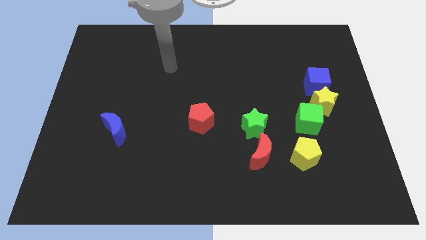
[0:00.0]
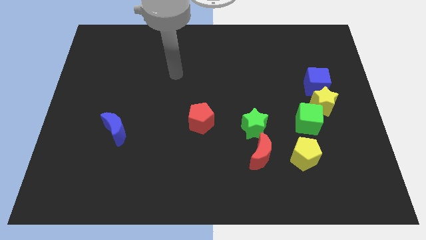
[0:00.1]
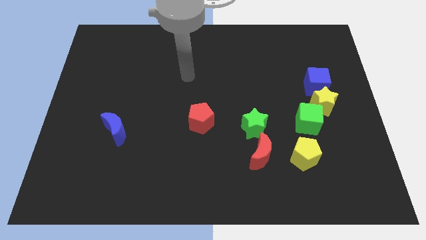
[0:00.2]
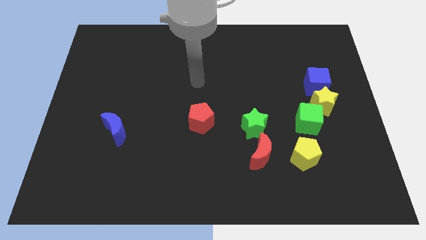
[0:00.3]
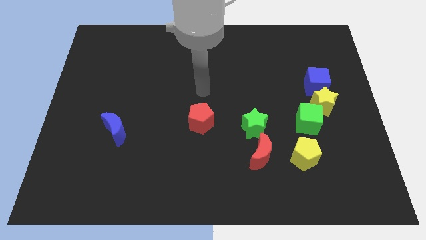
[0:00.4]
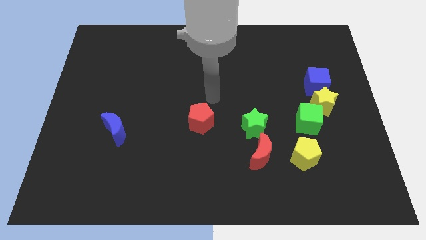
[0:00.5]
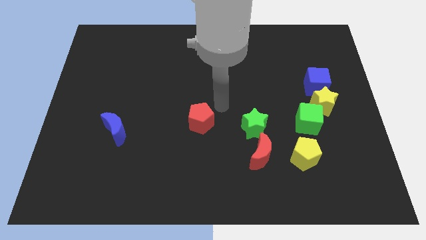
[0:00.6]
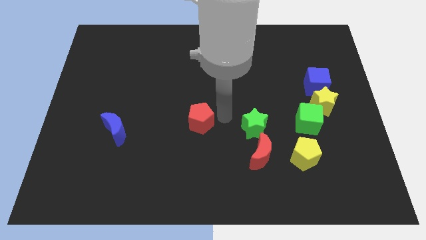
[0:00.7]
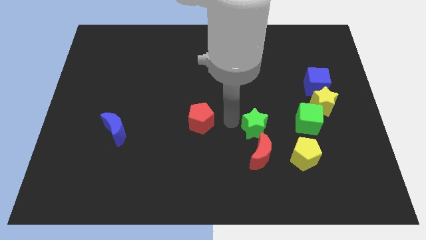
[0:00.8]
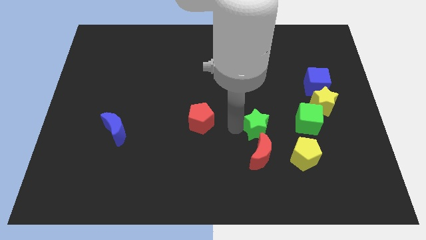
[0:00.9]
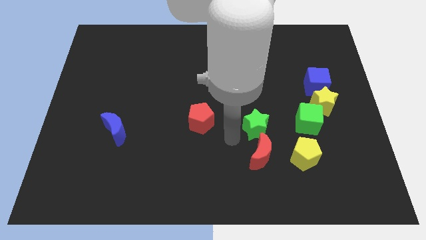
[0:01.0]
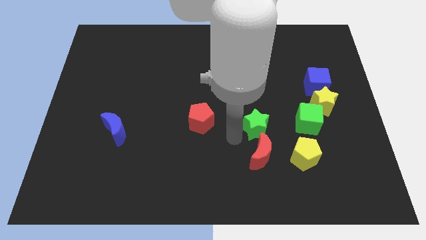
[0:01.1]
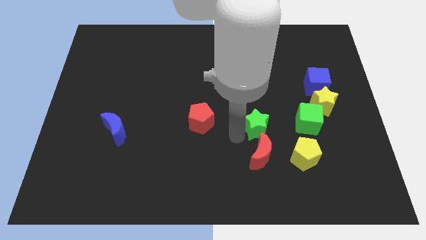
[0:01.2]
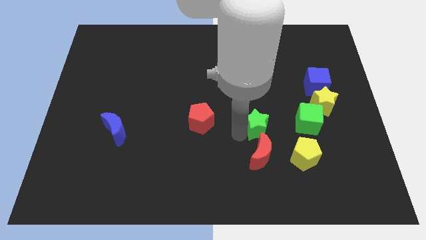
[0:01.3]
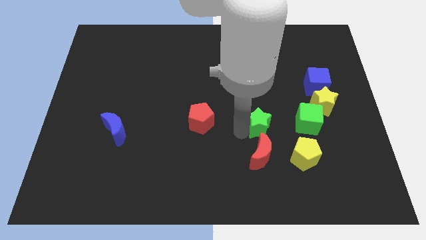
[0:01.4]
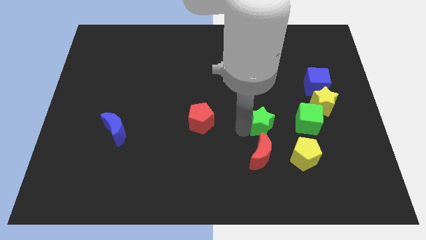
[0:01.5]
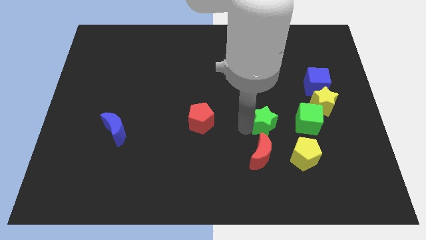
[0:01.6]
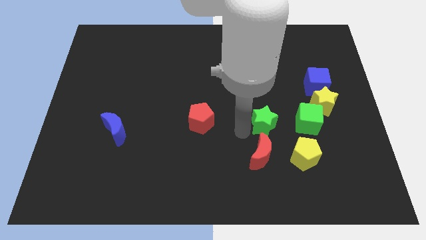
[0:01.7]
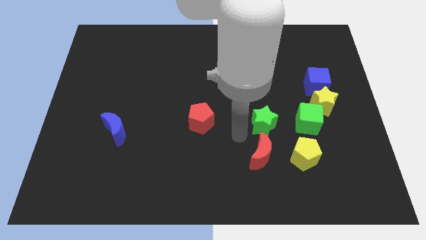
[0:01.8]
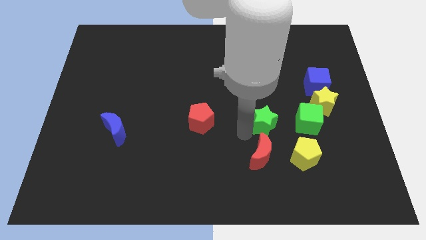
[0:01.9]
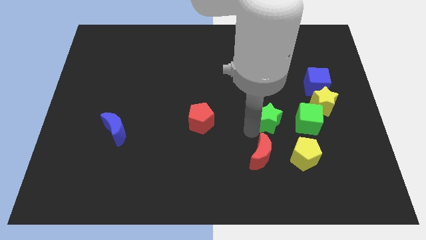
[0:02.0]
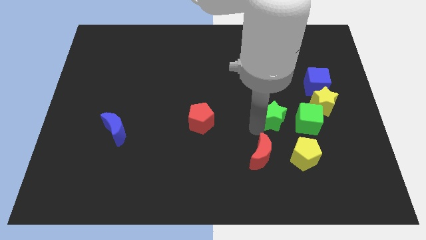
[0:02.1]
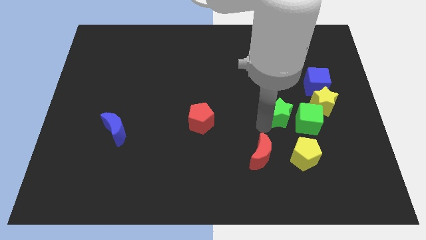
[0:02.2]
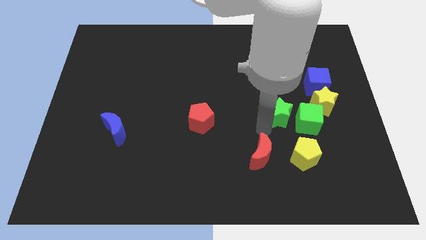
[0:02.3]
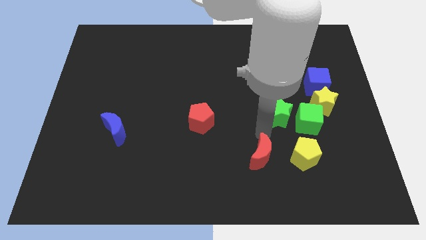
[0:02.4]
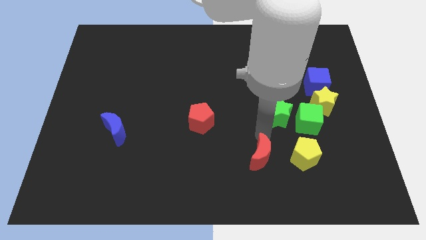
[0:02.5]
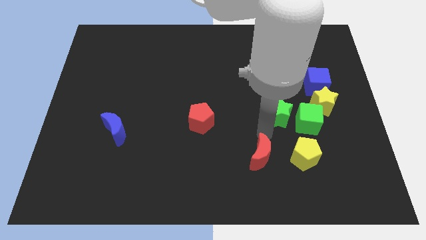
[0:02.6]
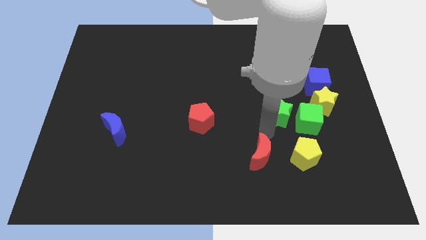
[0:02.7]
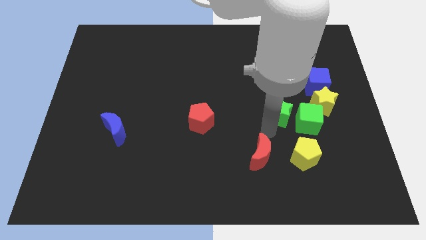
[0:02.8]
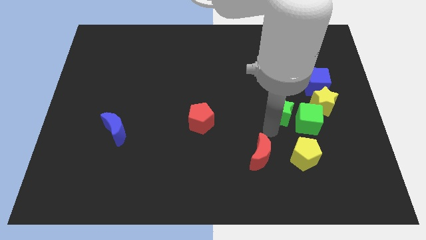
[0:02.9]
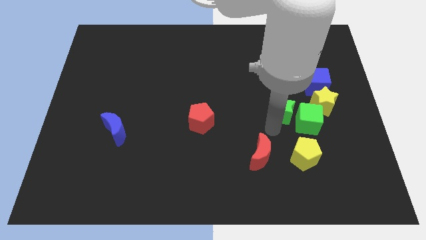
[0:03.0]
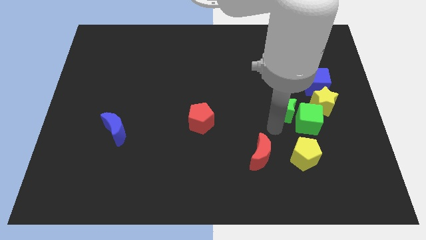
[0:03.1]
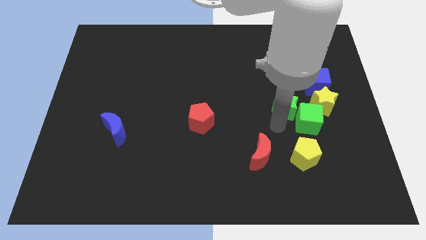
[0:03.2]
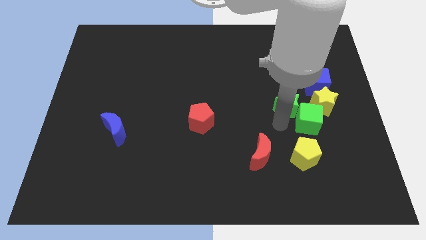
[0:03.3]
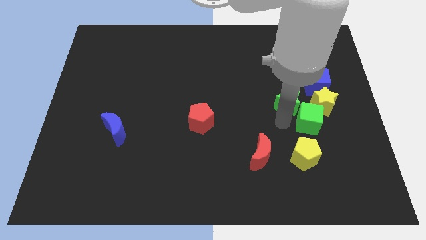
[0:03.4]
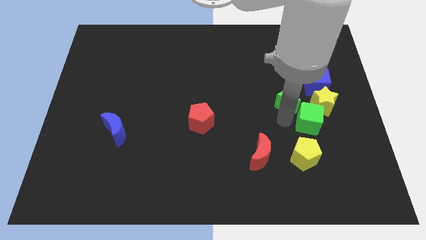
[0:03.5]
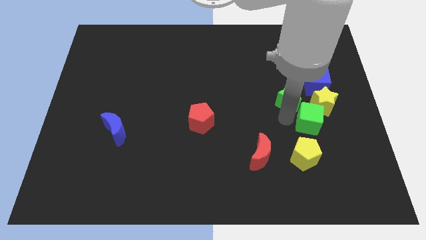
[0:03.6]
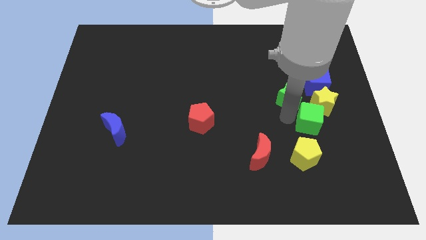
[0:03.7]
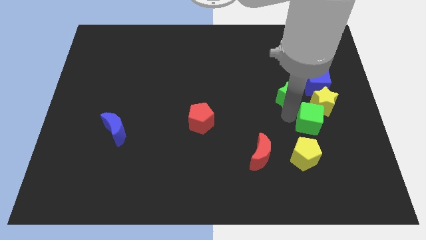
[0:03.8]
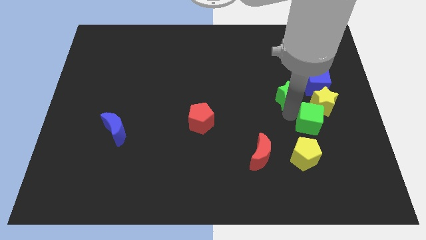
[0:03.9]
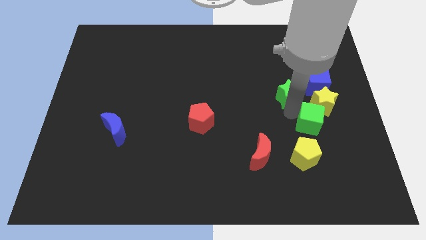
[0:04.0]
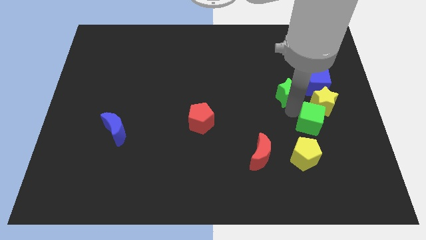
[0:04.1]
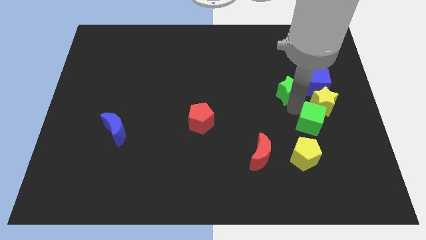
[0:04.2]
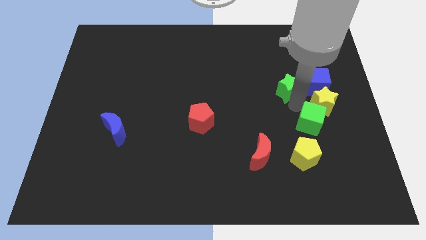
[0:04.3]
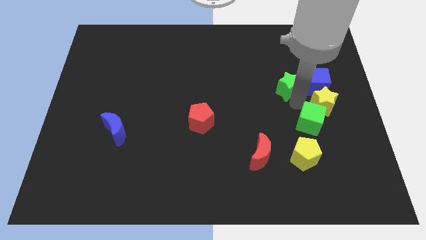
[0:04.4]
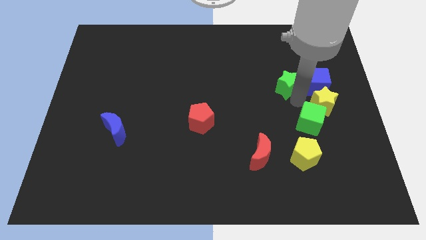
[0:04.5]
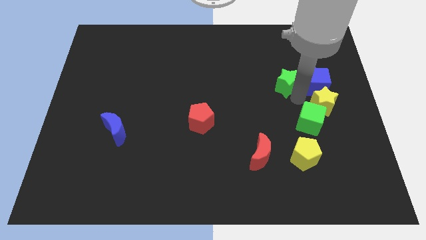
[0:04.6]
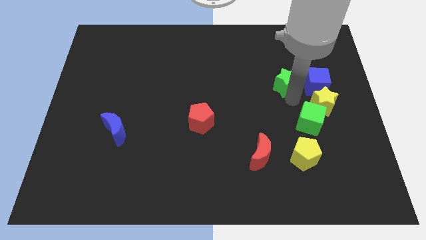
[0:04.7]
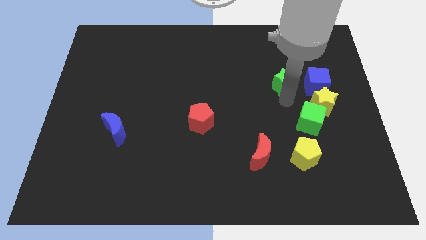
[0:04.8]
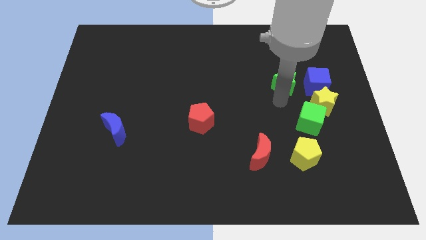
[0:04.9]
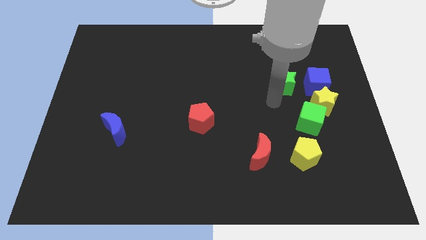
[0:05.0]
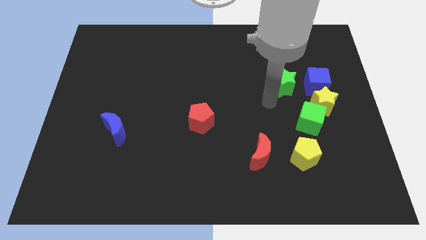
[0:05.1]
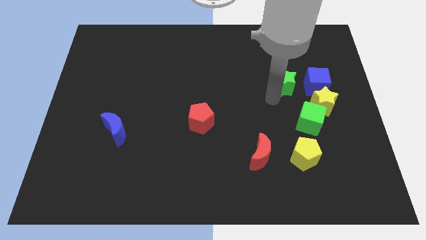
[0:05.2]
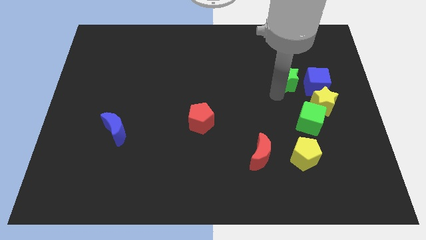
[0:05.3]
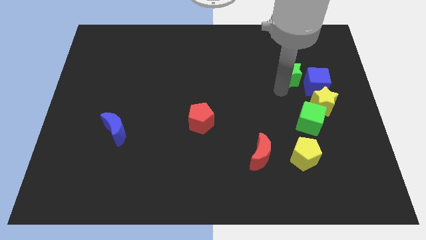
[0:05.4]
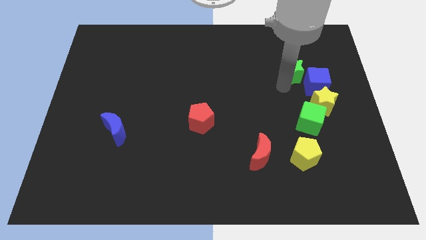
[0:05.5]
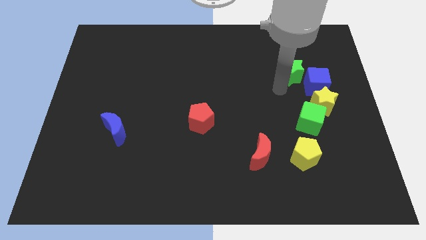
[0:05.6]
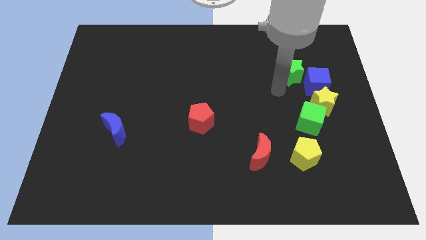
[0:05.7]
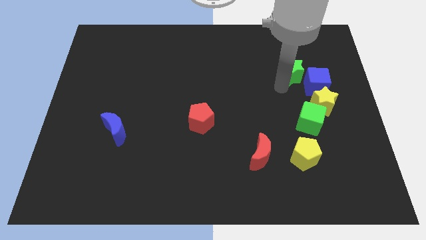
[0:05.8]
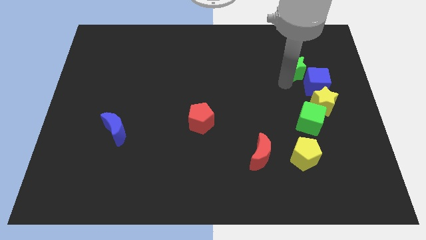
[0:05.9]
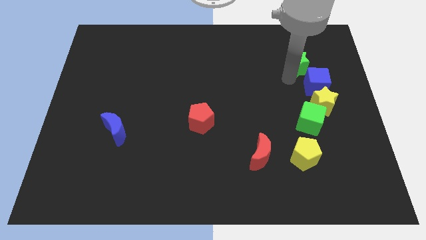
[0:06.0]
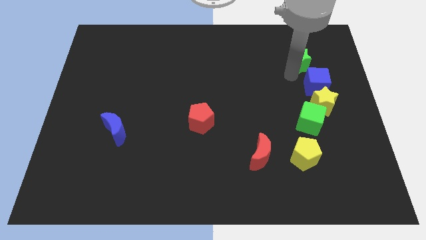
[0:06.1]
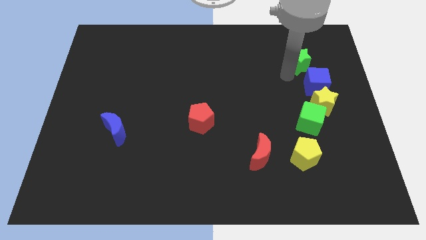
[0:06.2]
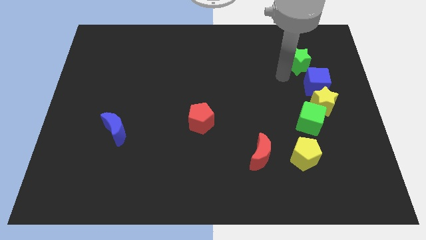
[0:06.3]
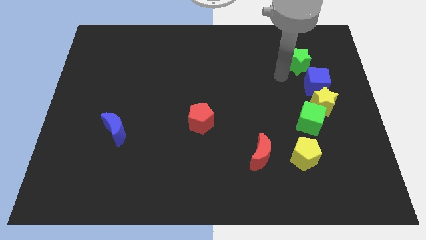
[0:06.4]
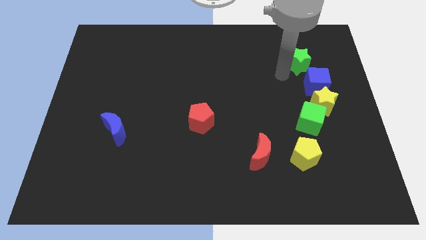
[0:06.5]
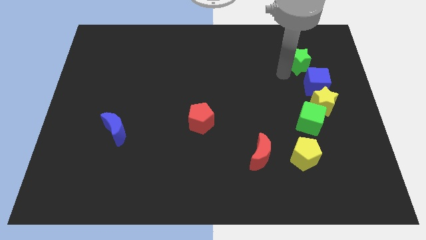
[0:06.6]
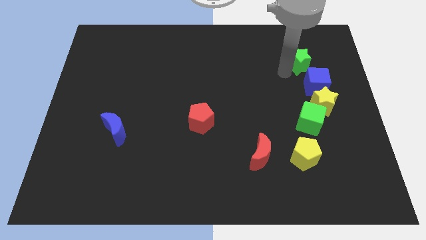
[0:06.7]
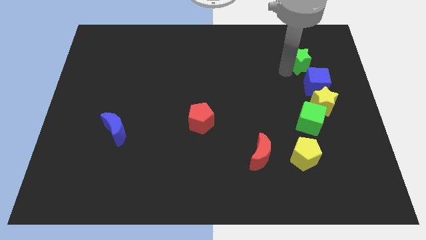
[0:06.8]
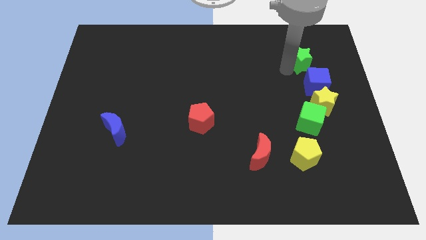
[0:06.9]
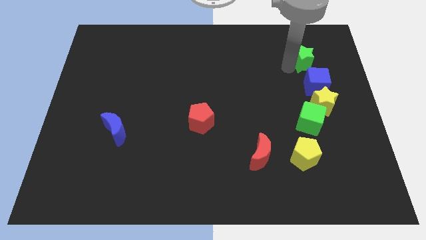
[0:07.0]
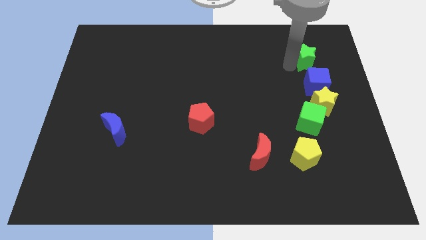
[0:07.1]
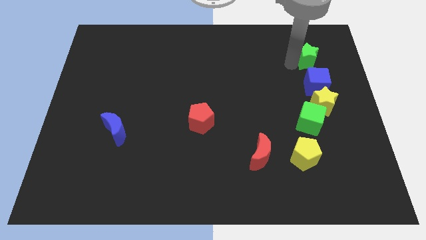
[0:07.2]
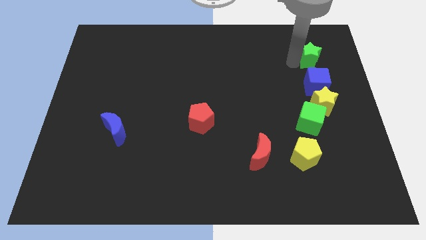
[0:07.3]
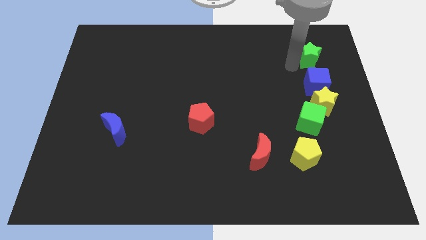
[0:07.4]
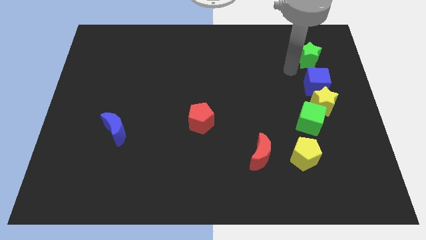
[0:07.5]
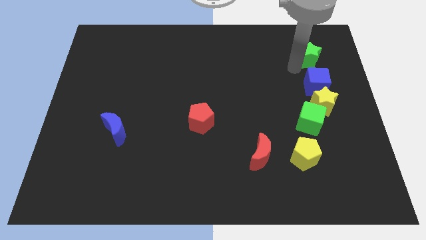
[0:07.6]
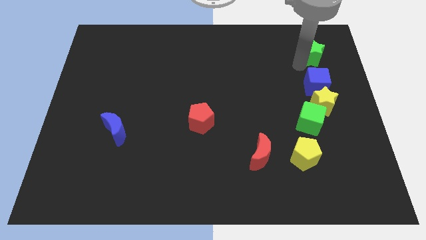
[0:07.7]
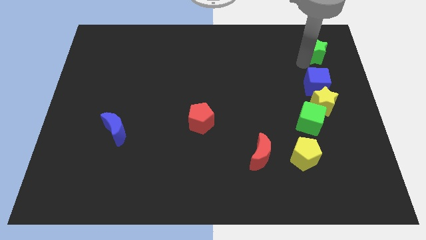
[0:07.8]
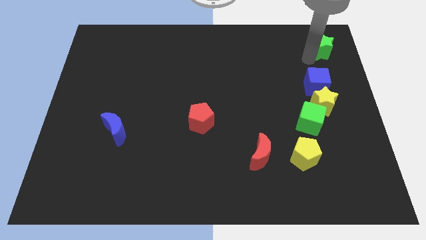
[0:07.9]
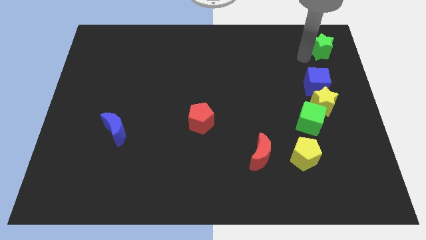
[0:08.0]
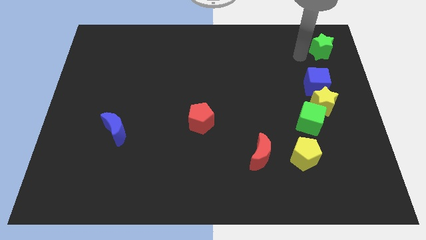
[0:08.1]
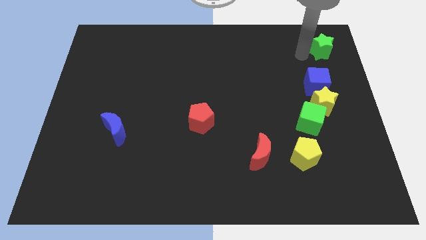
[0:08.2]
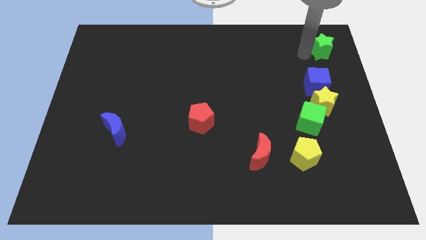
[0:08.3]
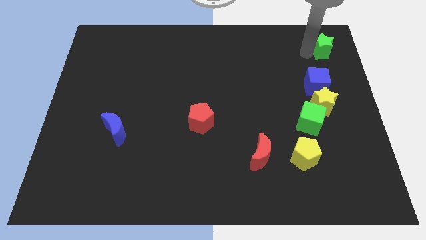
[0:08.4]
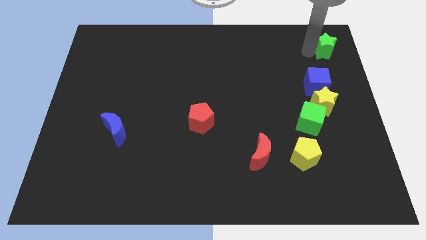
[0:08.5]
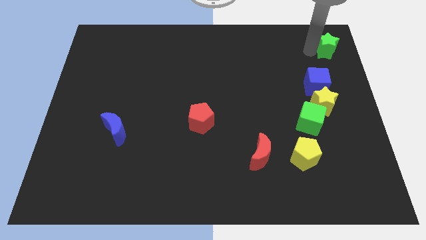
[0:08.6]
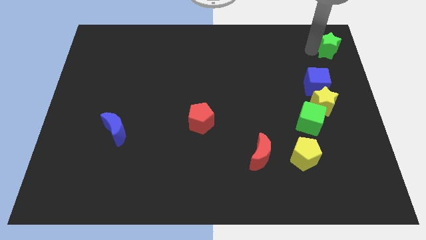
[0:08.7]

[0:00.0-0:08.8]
slide the green star to the top right
